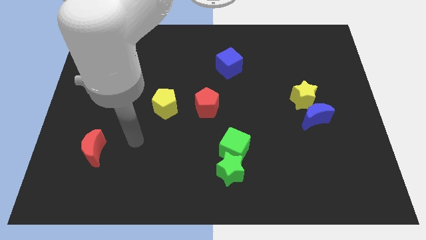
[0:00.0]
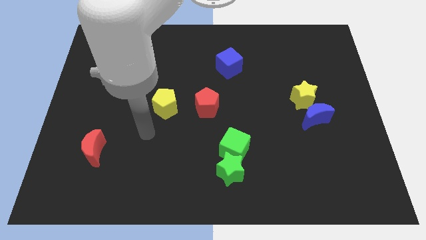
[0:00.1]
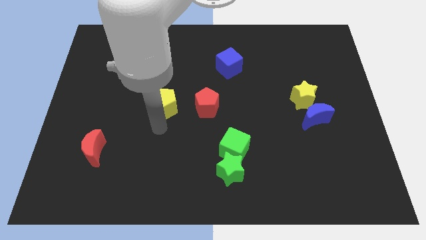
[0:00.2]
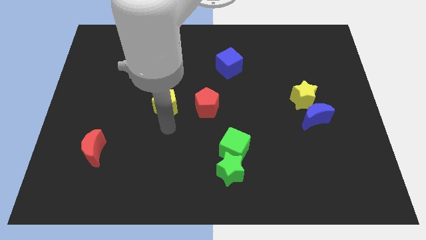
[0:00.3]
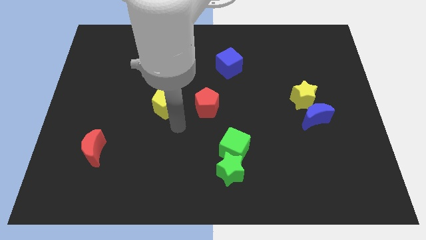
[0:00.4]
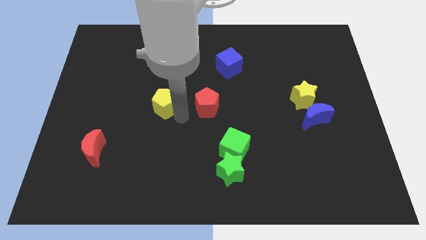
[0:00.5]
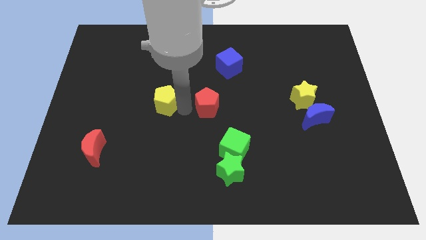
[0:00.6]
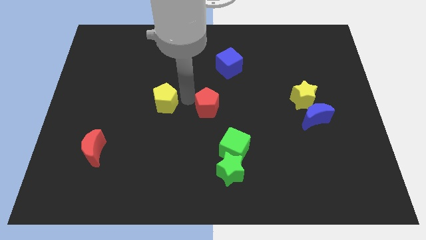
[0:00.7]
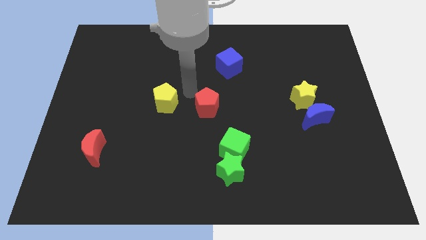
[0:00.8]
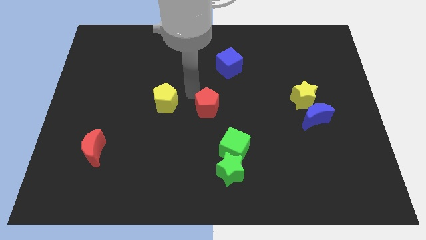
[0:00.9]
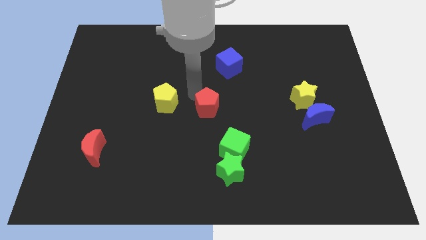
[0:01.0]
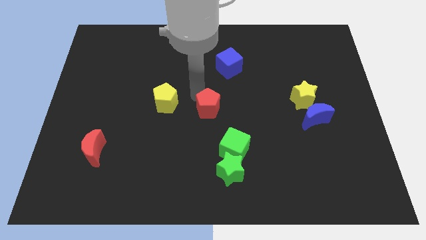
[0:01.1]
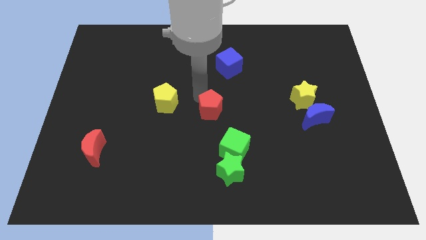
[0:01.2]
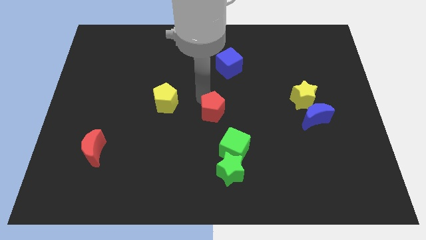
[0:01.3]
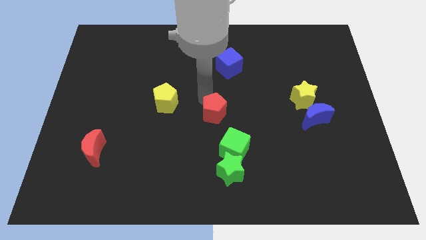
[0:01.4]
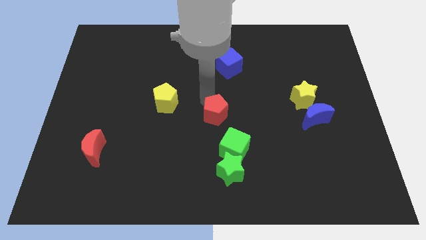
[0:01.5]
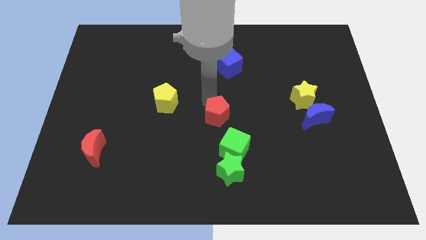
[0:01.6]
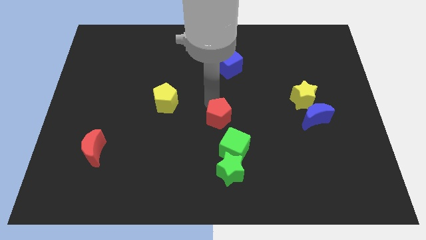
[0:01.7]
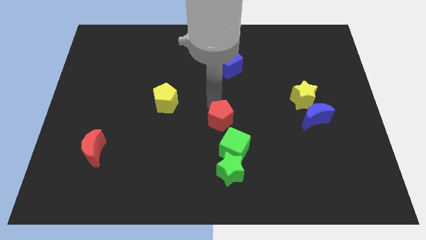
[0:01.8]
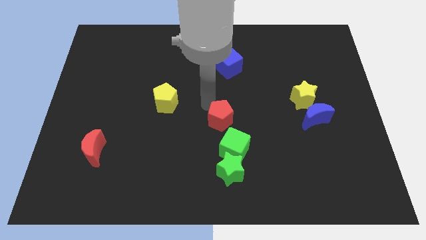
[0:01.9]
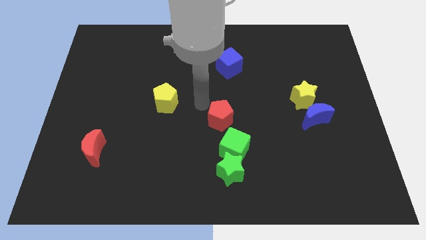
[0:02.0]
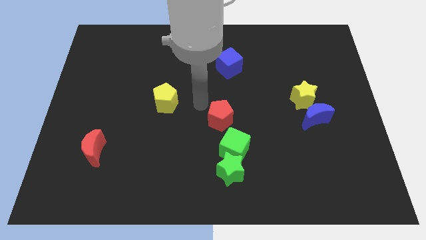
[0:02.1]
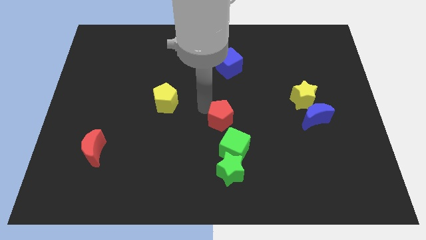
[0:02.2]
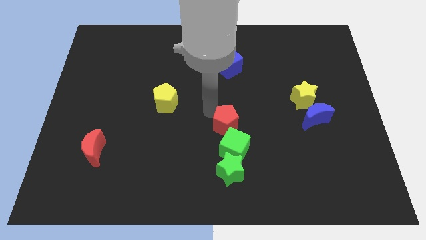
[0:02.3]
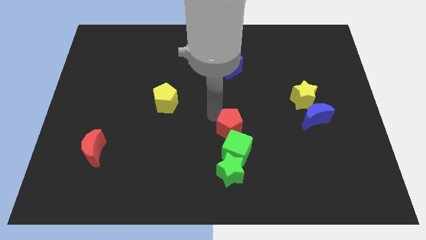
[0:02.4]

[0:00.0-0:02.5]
slightly slide the red pentagon downwards and right

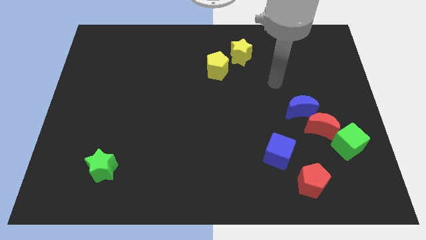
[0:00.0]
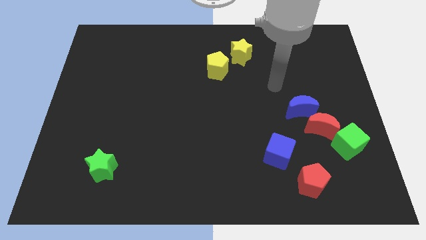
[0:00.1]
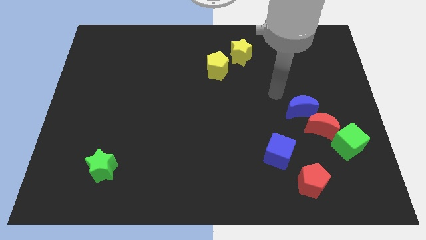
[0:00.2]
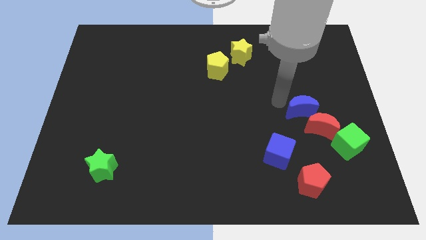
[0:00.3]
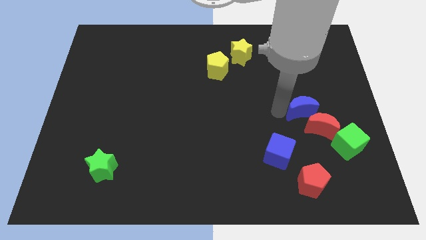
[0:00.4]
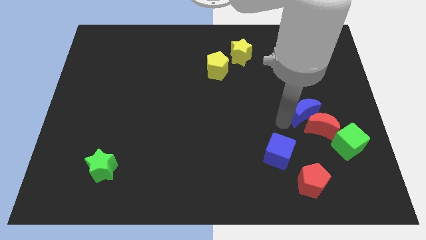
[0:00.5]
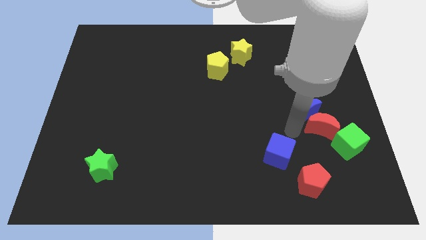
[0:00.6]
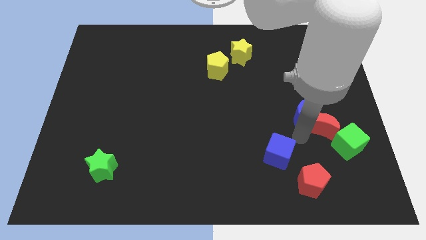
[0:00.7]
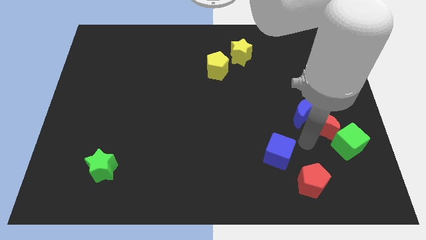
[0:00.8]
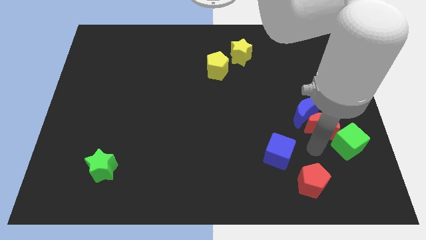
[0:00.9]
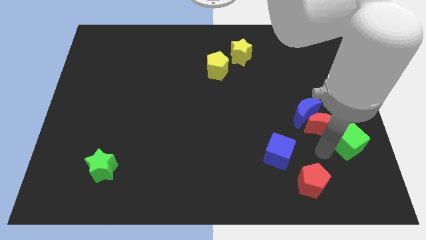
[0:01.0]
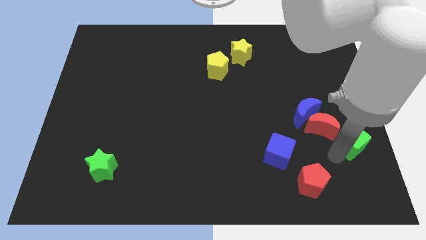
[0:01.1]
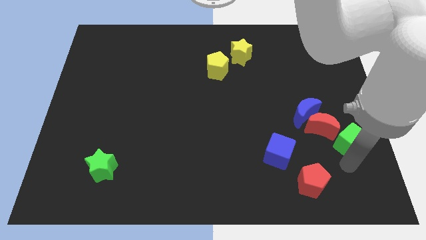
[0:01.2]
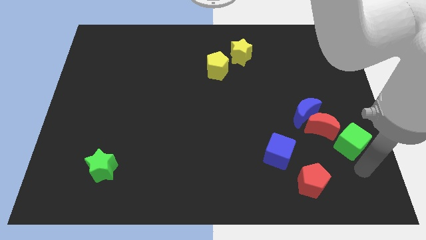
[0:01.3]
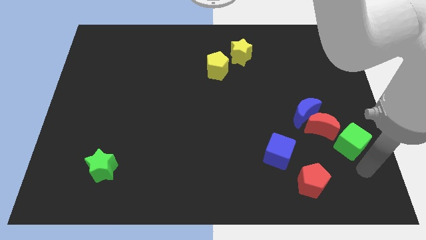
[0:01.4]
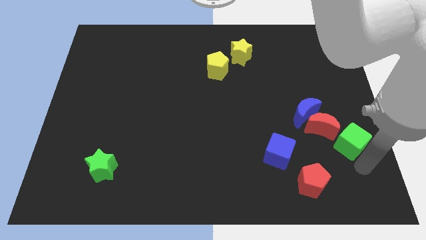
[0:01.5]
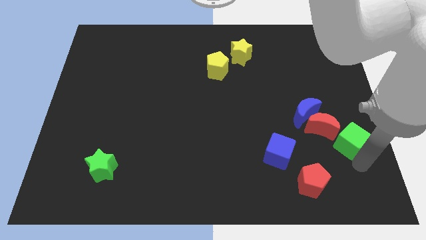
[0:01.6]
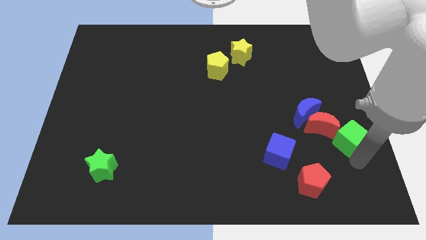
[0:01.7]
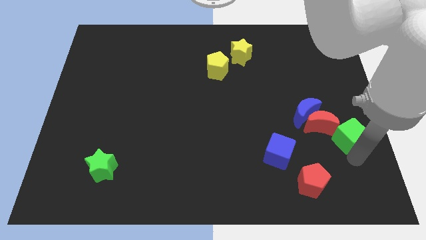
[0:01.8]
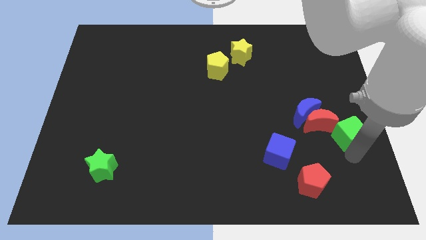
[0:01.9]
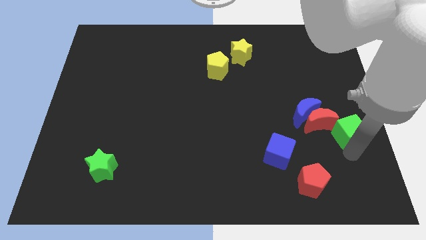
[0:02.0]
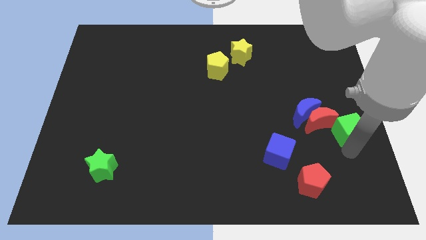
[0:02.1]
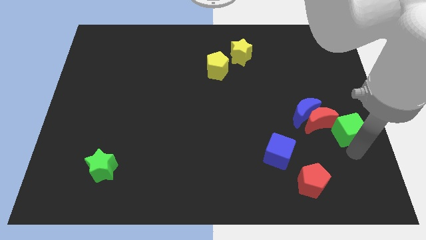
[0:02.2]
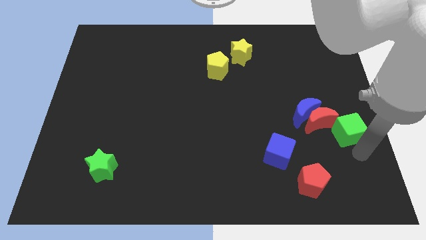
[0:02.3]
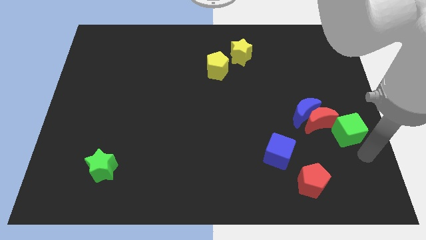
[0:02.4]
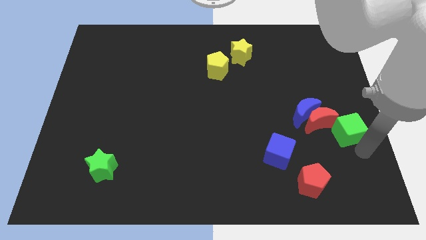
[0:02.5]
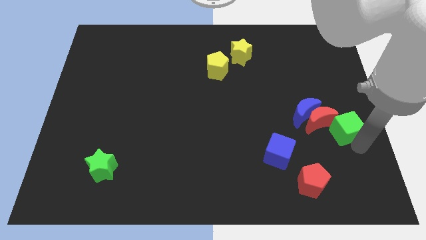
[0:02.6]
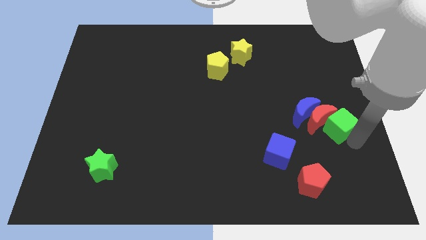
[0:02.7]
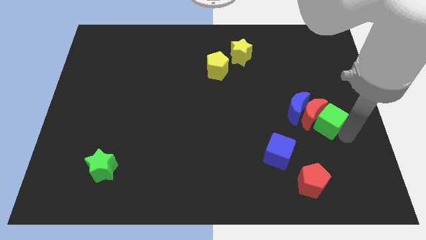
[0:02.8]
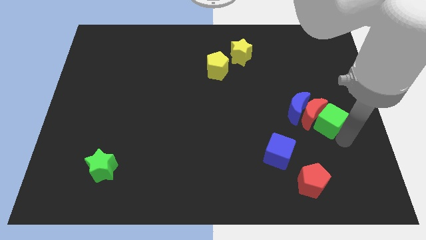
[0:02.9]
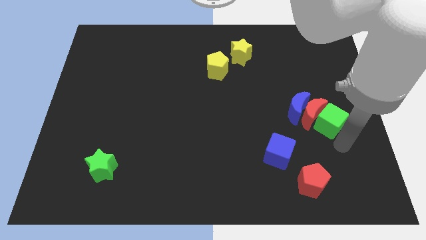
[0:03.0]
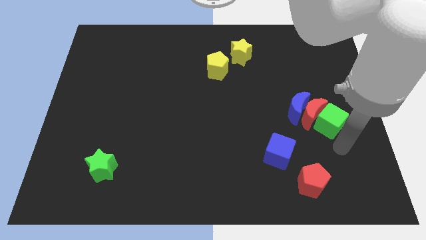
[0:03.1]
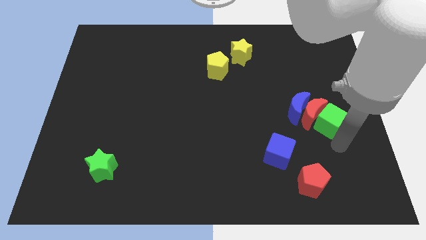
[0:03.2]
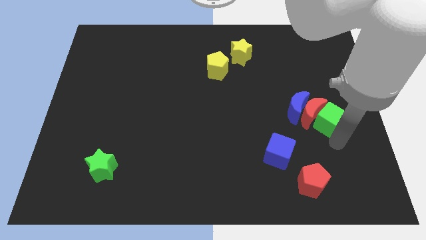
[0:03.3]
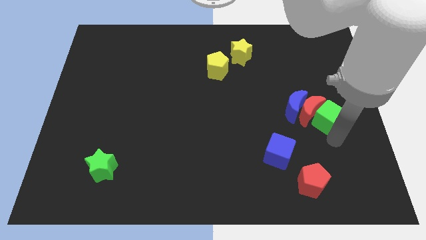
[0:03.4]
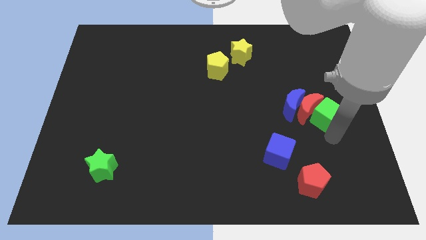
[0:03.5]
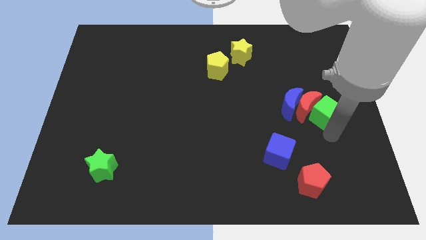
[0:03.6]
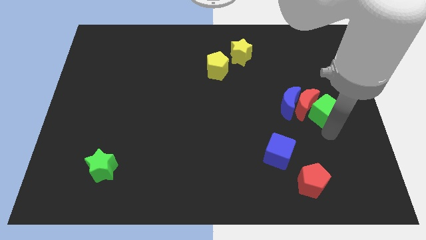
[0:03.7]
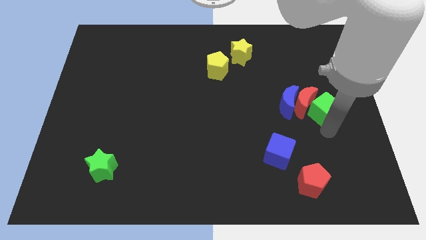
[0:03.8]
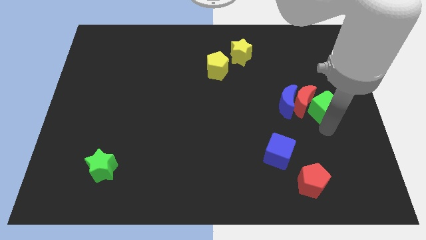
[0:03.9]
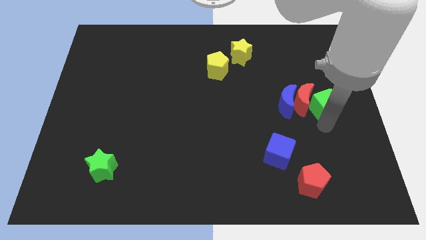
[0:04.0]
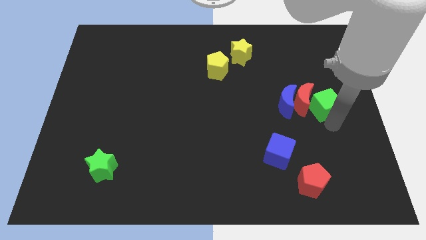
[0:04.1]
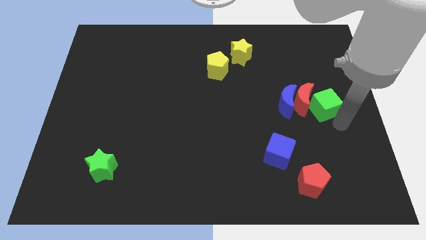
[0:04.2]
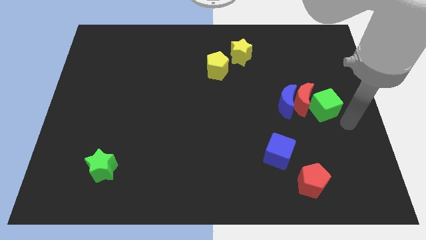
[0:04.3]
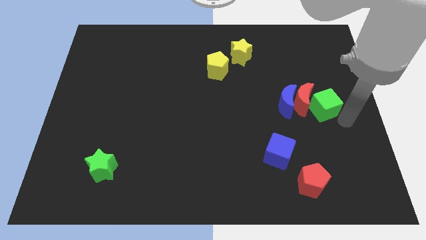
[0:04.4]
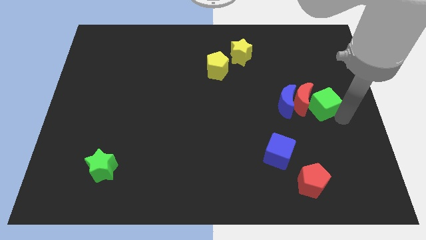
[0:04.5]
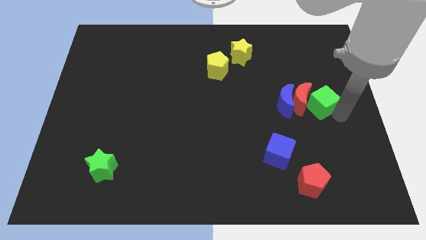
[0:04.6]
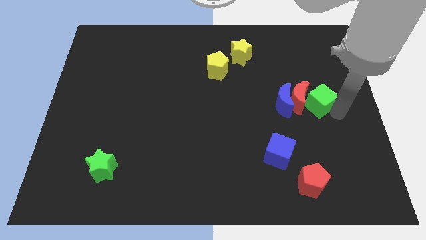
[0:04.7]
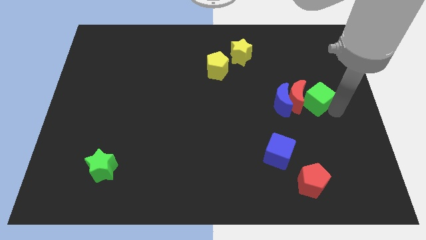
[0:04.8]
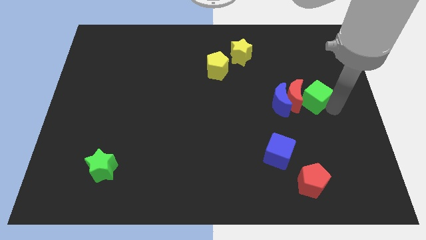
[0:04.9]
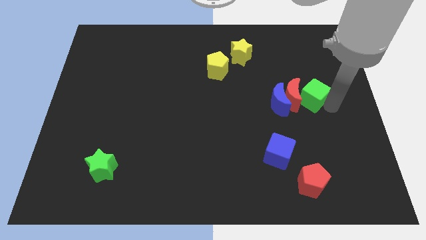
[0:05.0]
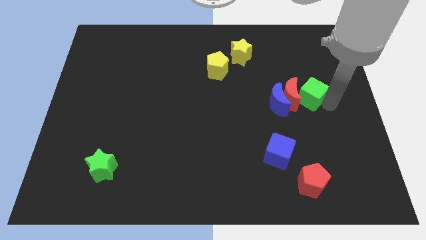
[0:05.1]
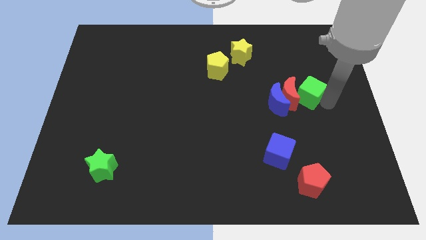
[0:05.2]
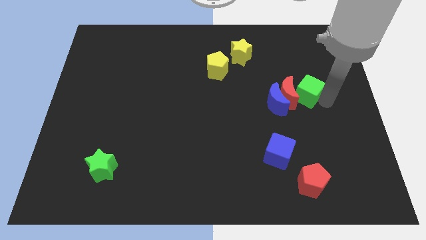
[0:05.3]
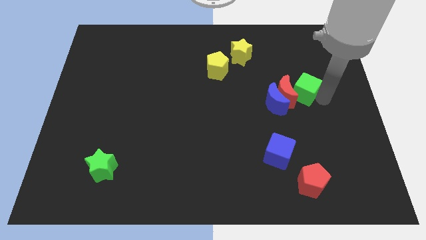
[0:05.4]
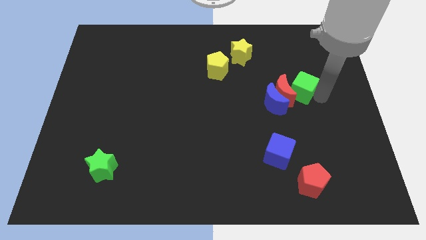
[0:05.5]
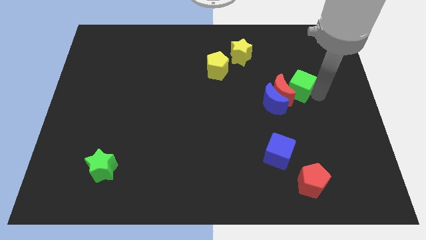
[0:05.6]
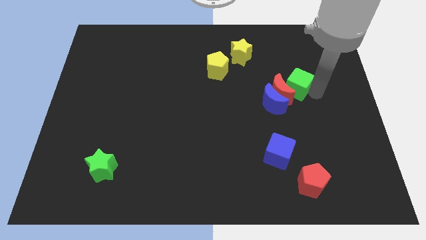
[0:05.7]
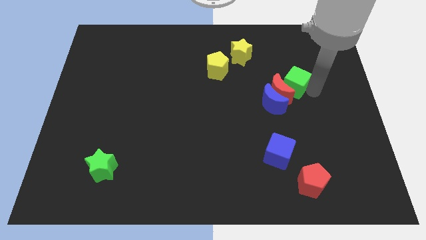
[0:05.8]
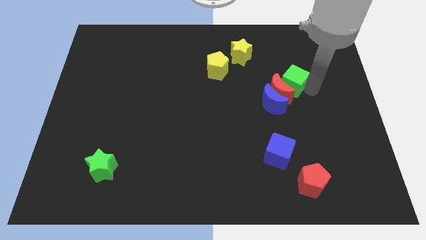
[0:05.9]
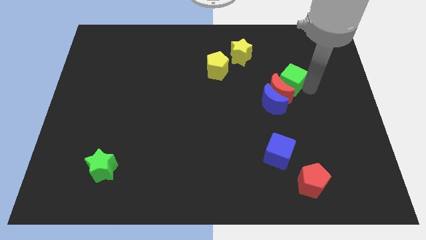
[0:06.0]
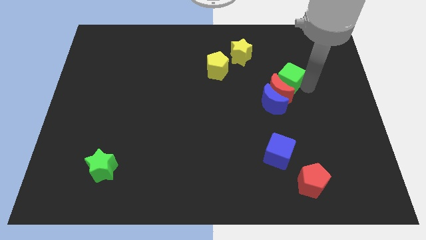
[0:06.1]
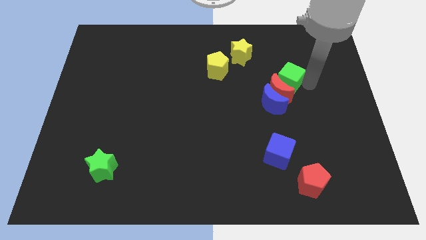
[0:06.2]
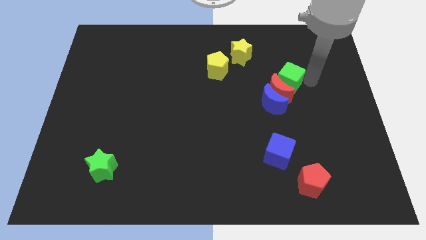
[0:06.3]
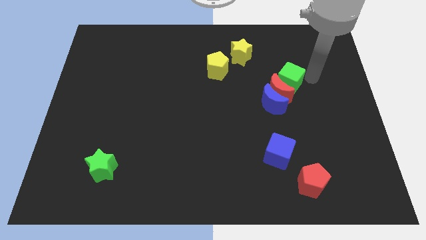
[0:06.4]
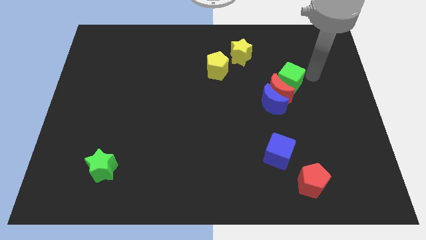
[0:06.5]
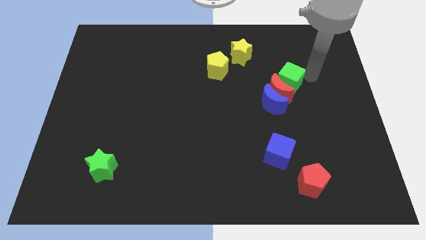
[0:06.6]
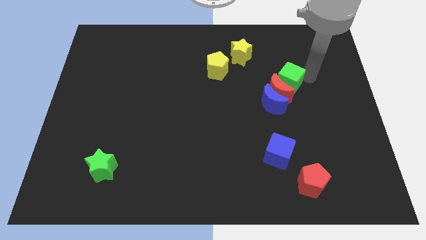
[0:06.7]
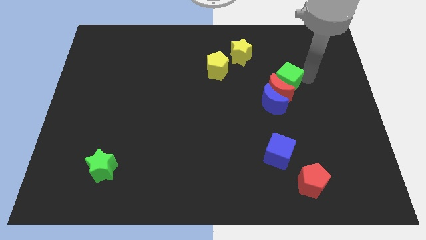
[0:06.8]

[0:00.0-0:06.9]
slide the green cube upwards and to the left diagonally
